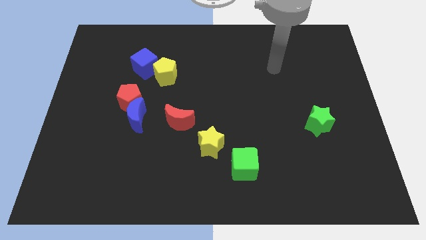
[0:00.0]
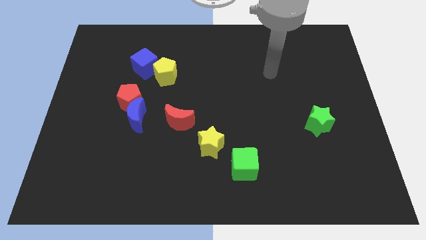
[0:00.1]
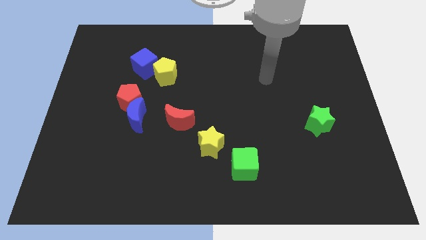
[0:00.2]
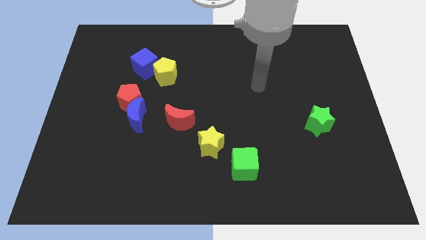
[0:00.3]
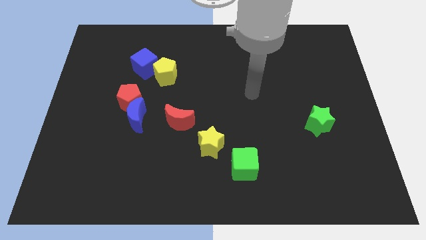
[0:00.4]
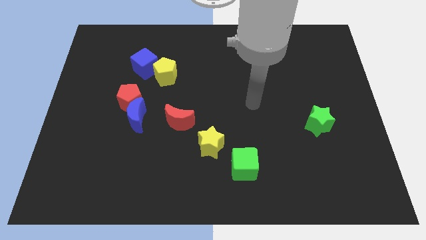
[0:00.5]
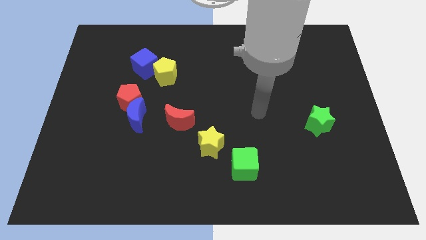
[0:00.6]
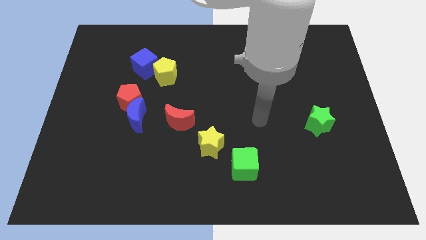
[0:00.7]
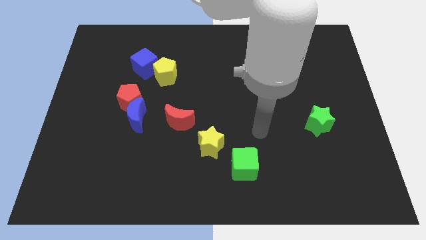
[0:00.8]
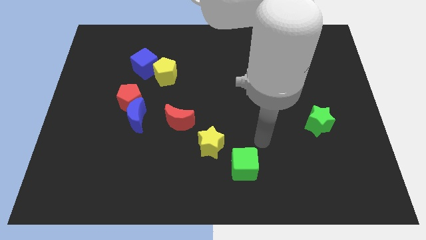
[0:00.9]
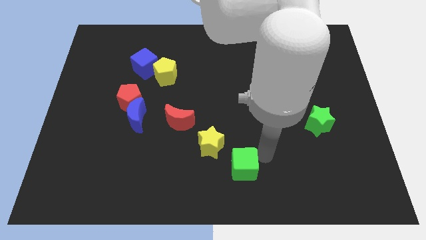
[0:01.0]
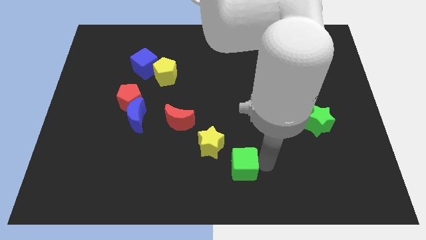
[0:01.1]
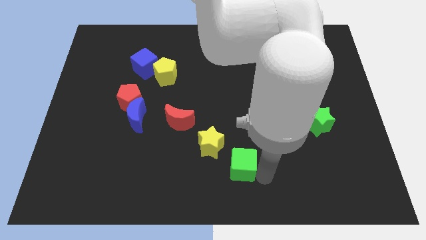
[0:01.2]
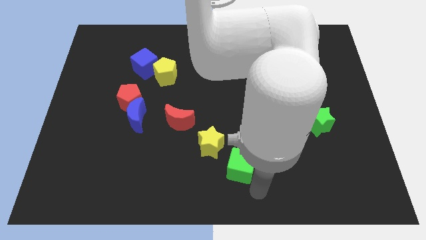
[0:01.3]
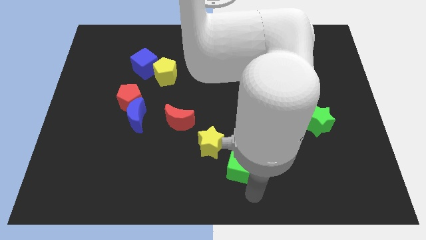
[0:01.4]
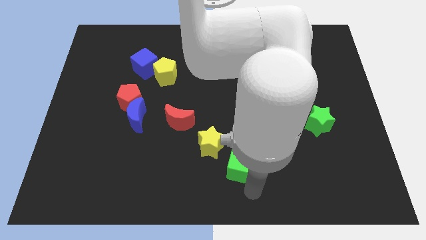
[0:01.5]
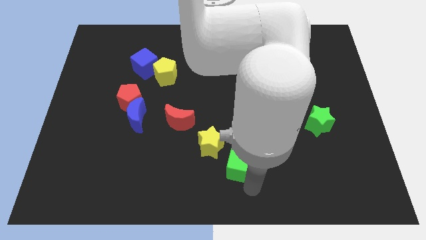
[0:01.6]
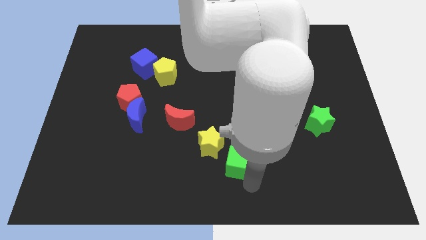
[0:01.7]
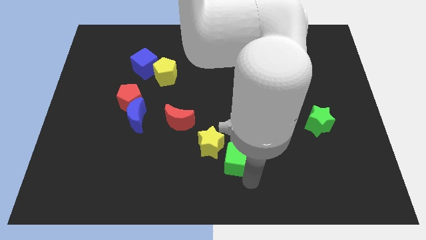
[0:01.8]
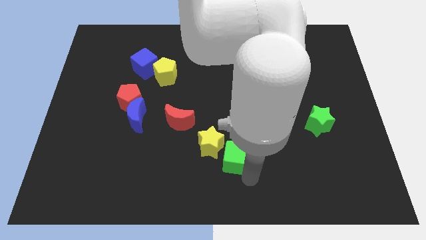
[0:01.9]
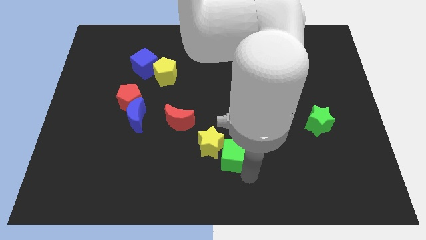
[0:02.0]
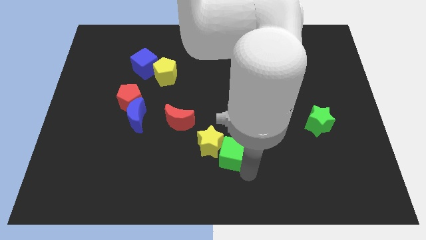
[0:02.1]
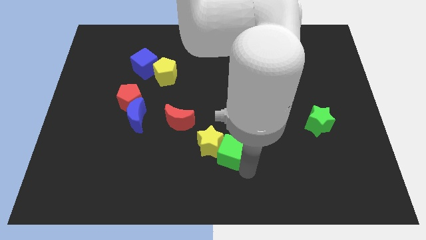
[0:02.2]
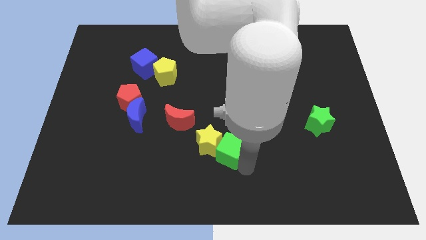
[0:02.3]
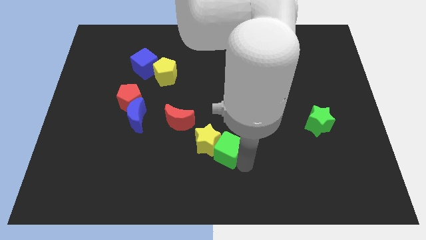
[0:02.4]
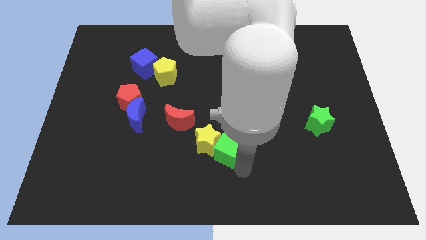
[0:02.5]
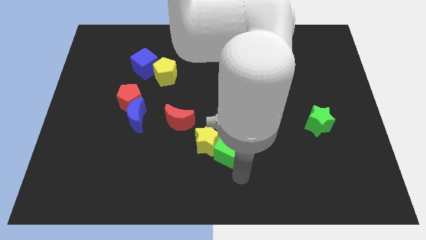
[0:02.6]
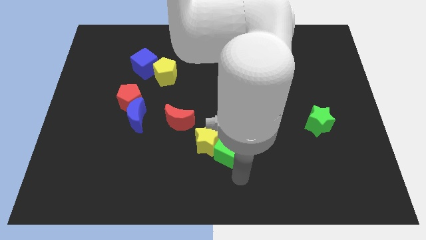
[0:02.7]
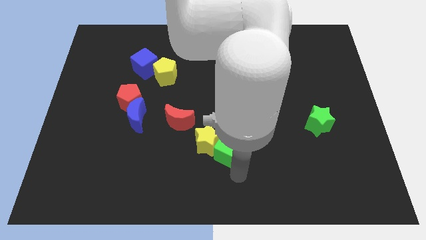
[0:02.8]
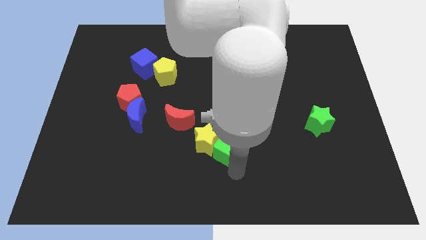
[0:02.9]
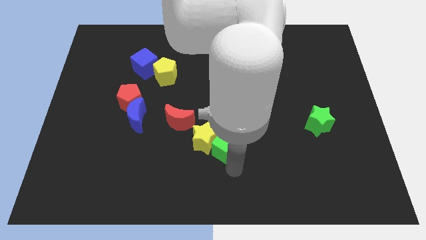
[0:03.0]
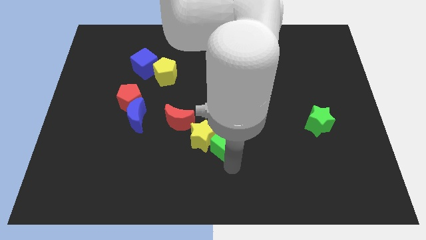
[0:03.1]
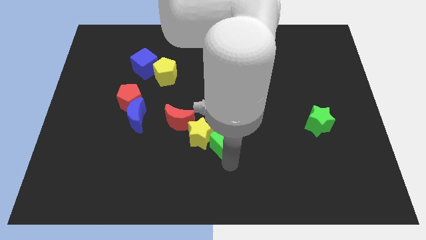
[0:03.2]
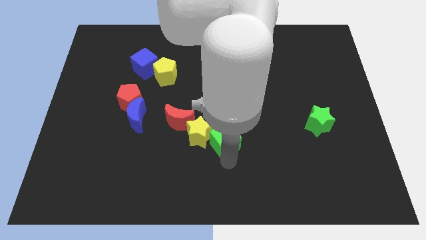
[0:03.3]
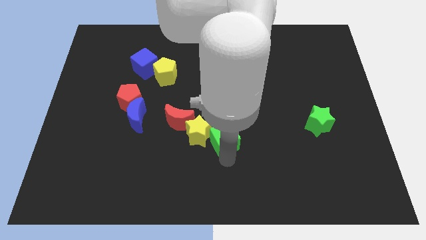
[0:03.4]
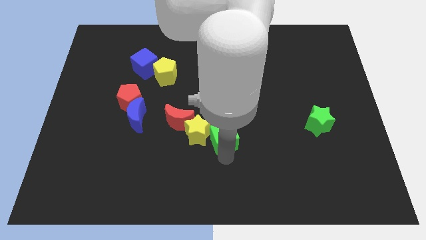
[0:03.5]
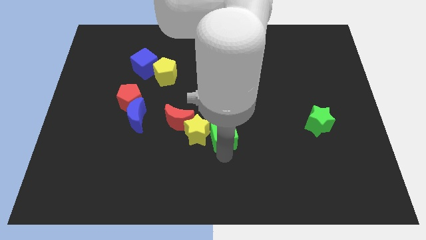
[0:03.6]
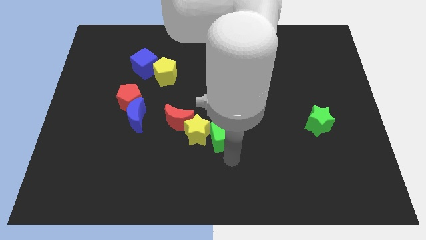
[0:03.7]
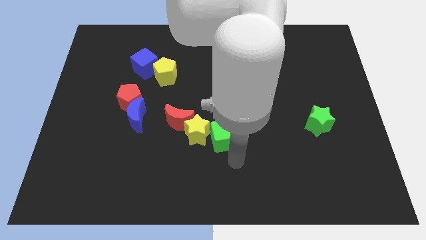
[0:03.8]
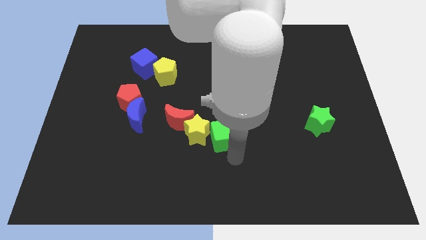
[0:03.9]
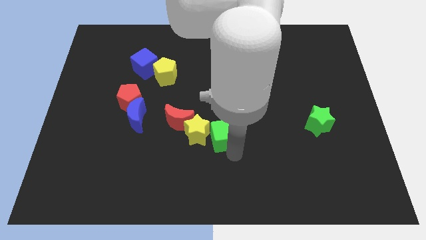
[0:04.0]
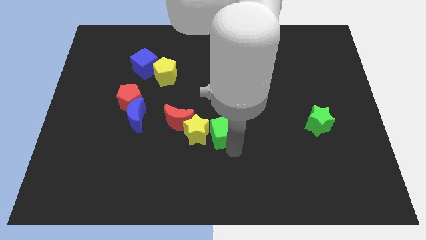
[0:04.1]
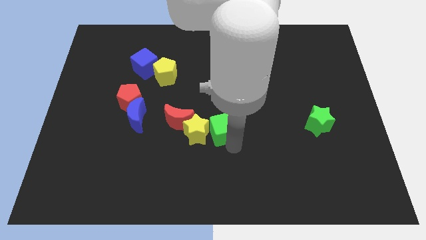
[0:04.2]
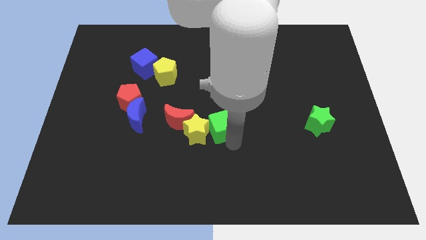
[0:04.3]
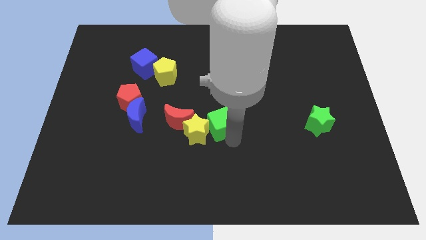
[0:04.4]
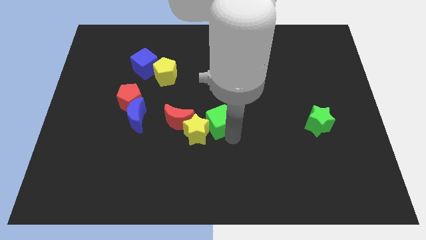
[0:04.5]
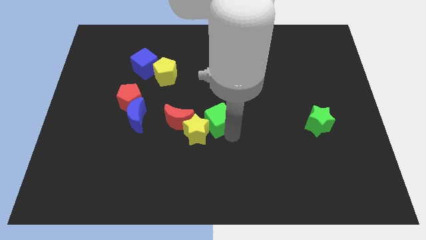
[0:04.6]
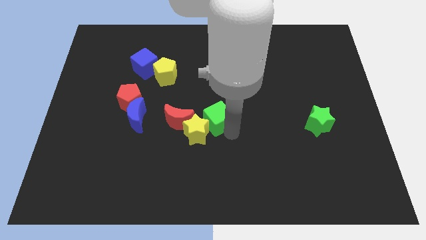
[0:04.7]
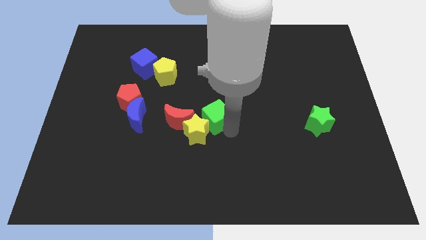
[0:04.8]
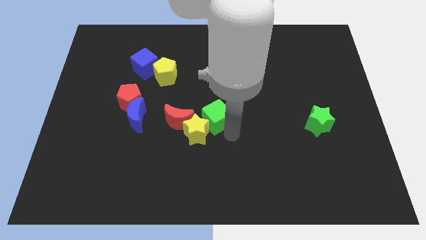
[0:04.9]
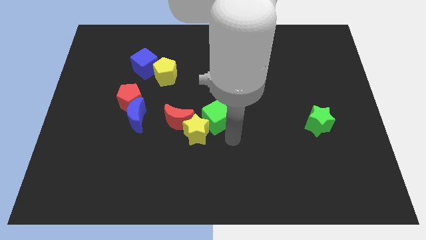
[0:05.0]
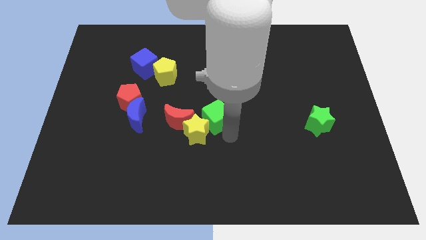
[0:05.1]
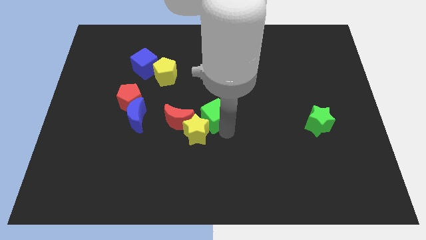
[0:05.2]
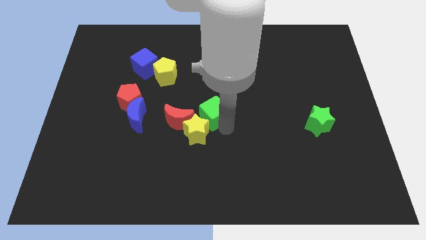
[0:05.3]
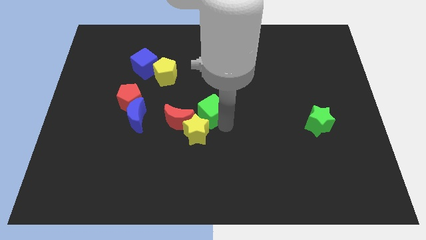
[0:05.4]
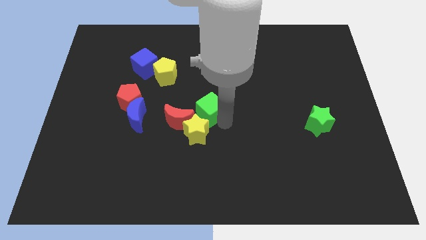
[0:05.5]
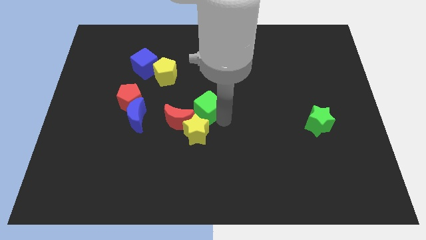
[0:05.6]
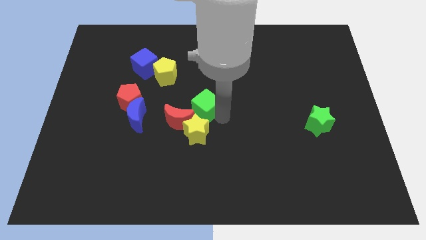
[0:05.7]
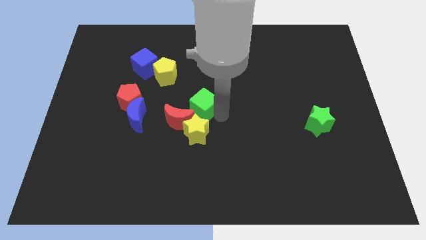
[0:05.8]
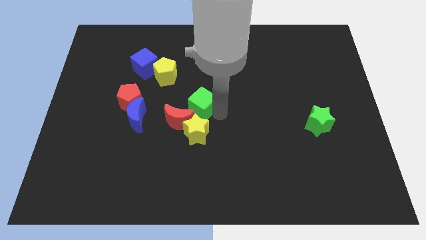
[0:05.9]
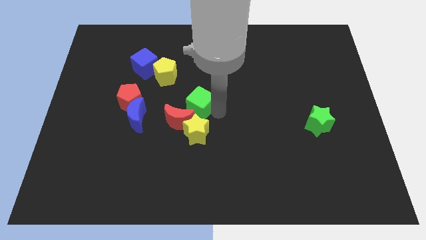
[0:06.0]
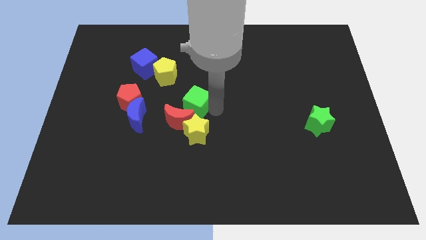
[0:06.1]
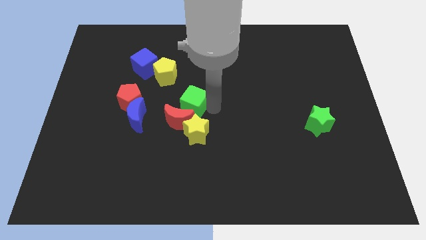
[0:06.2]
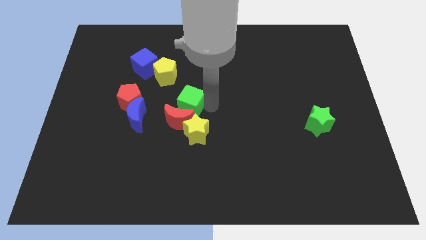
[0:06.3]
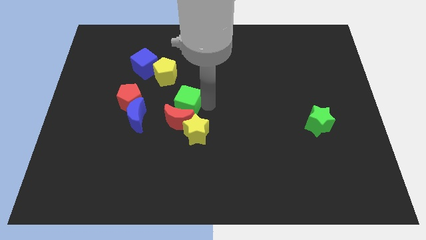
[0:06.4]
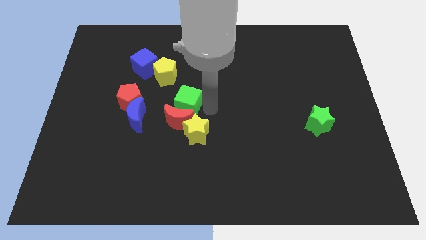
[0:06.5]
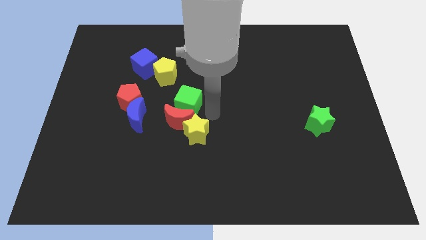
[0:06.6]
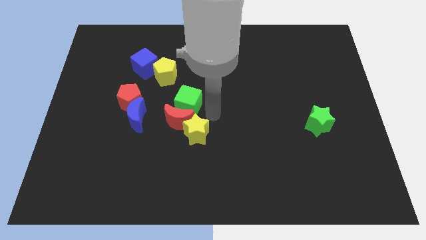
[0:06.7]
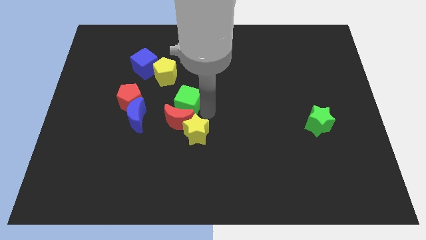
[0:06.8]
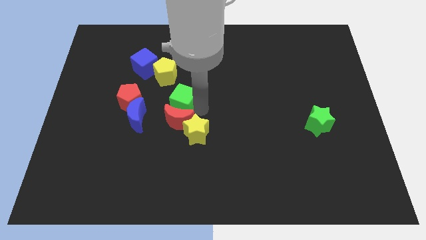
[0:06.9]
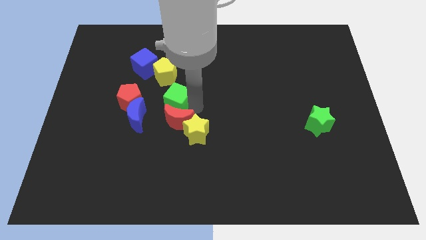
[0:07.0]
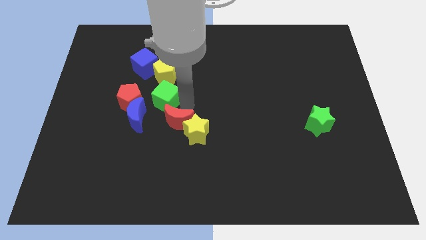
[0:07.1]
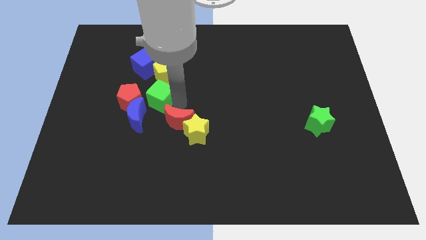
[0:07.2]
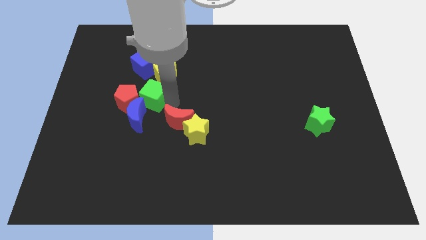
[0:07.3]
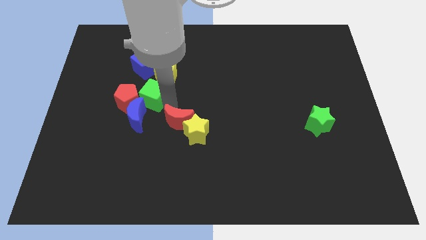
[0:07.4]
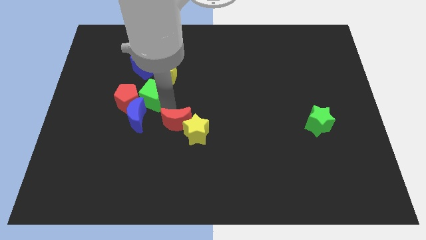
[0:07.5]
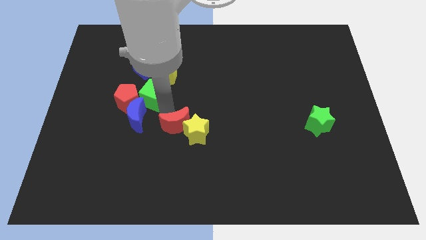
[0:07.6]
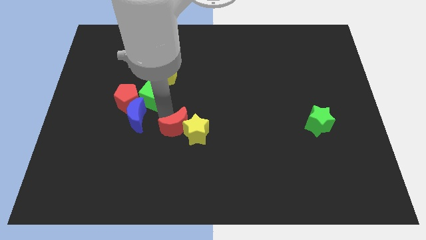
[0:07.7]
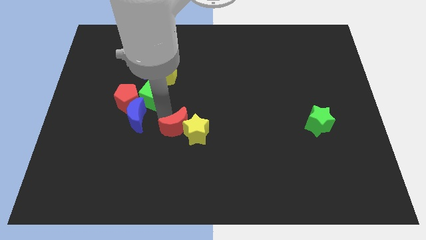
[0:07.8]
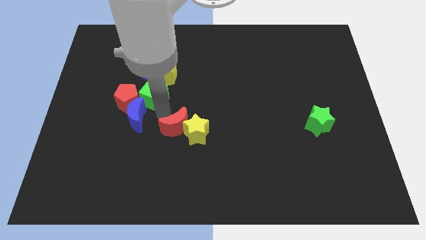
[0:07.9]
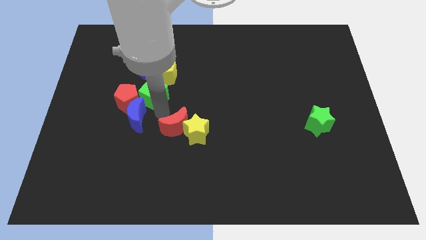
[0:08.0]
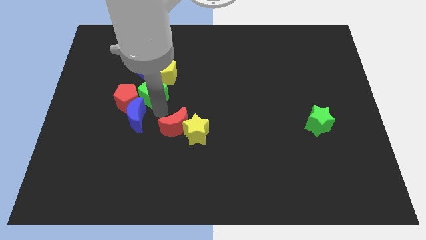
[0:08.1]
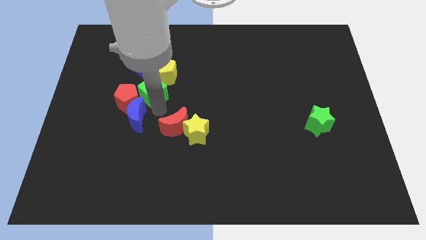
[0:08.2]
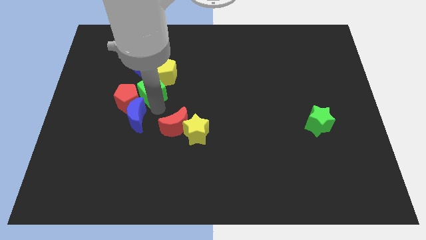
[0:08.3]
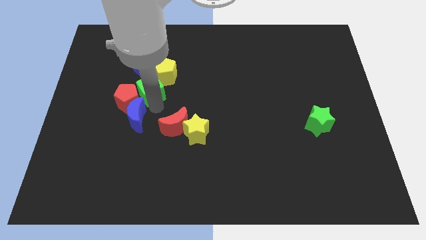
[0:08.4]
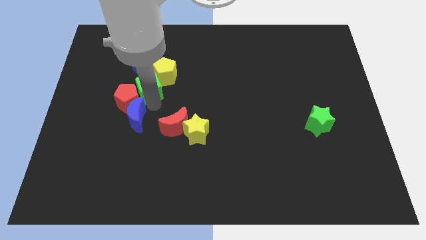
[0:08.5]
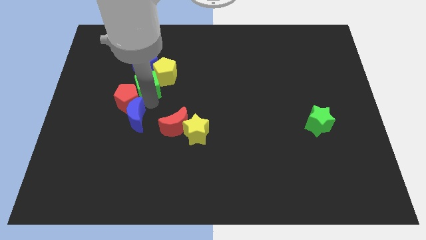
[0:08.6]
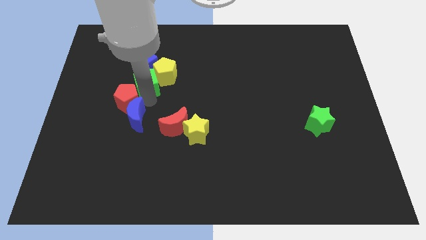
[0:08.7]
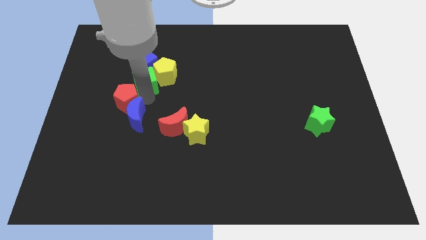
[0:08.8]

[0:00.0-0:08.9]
slide the green cube to the blue cube
